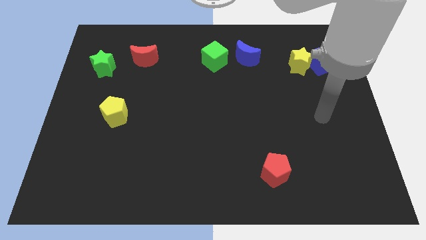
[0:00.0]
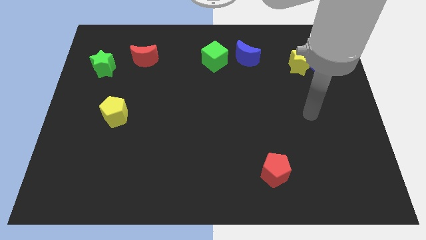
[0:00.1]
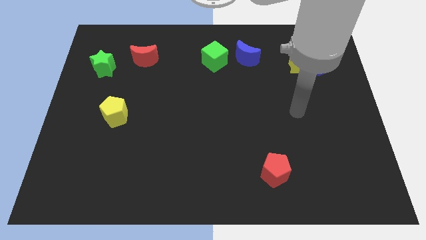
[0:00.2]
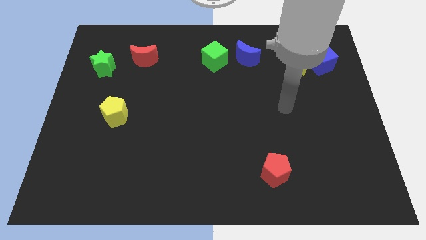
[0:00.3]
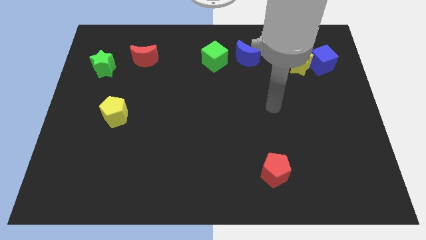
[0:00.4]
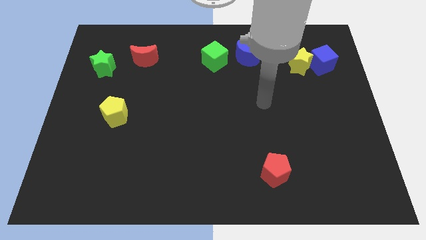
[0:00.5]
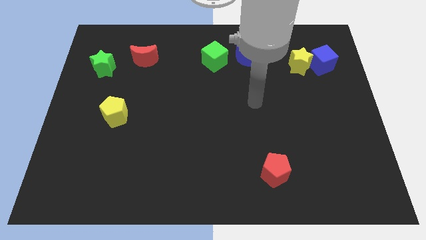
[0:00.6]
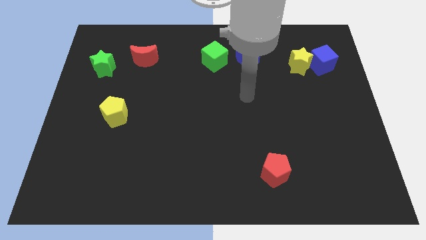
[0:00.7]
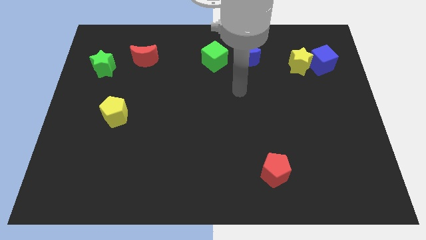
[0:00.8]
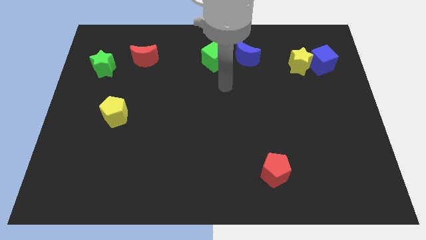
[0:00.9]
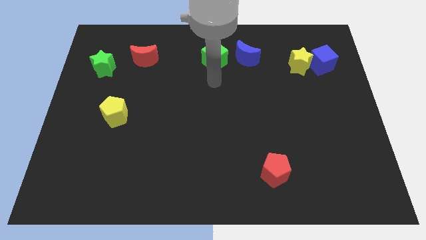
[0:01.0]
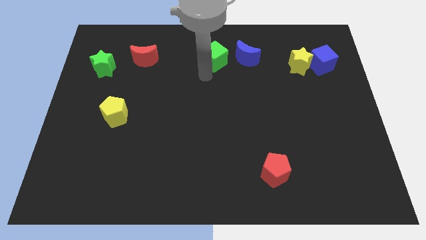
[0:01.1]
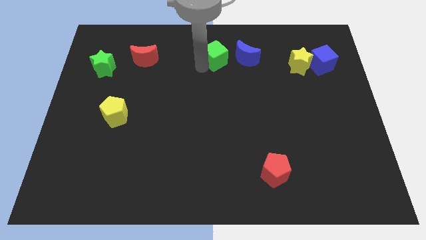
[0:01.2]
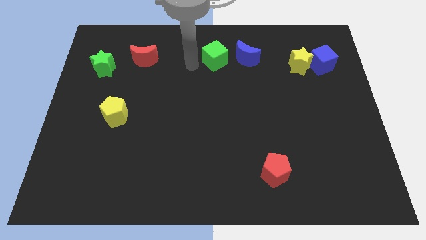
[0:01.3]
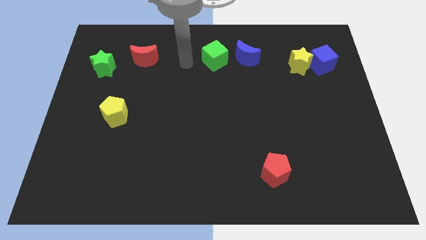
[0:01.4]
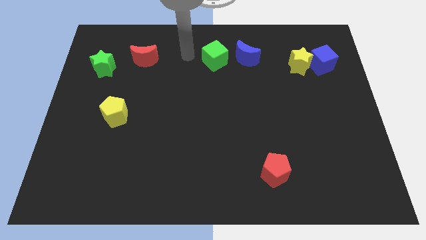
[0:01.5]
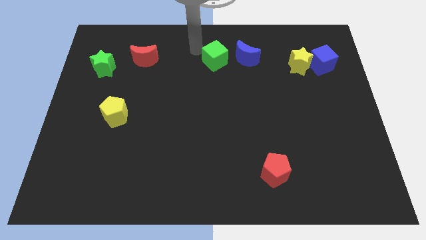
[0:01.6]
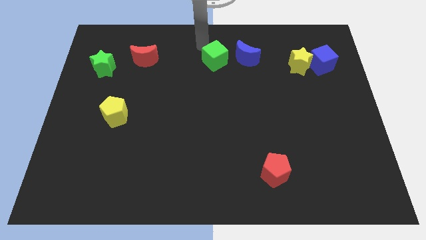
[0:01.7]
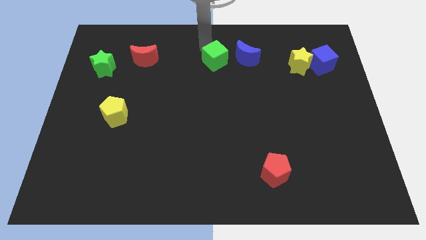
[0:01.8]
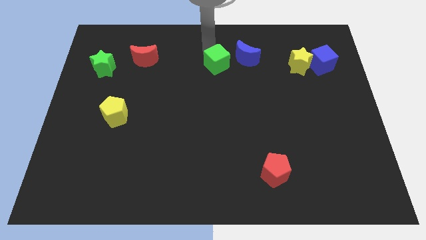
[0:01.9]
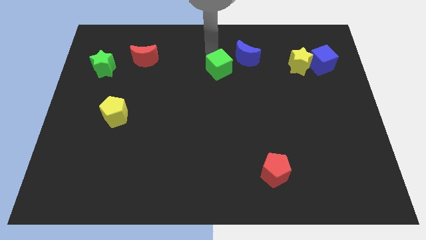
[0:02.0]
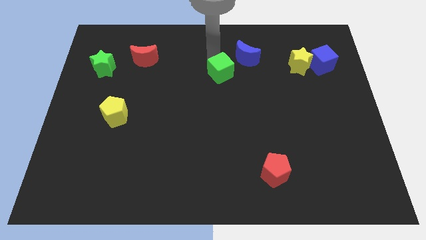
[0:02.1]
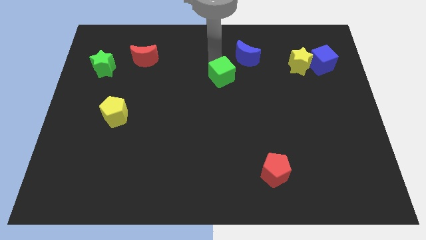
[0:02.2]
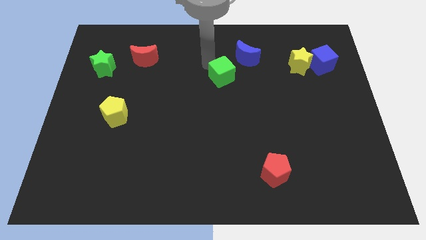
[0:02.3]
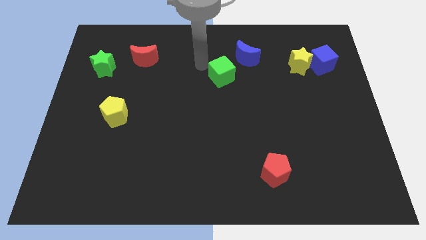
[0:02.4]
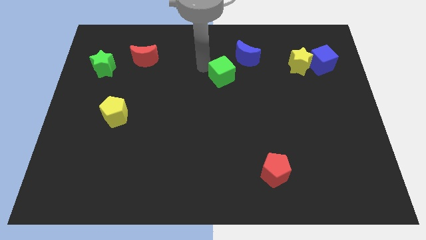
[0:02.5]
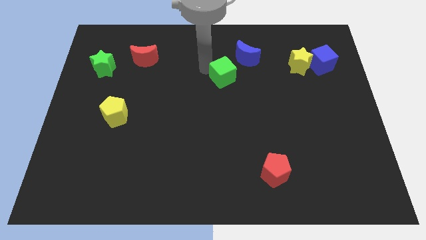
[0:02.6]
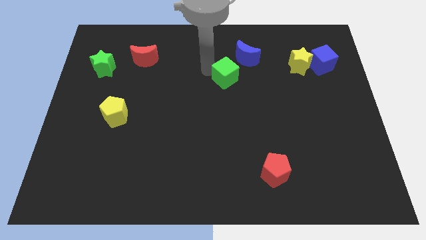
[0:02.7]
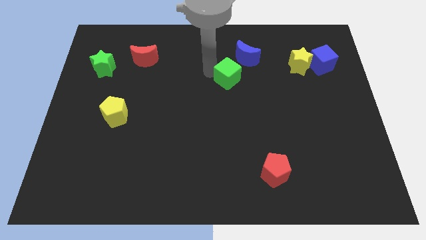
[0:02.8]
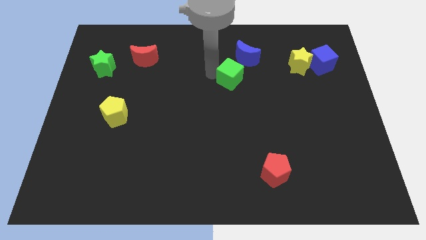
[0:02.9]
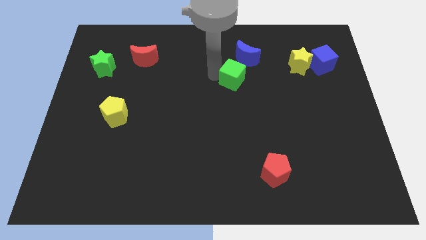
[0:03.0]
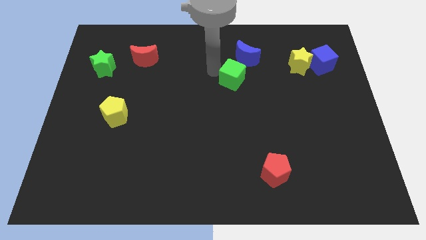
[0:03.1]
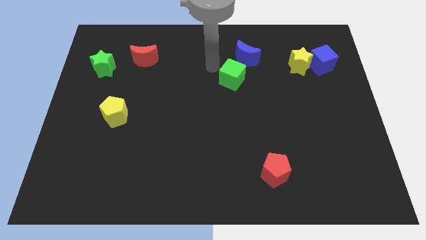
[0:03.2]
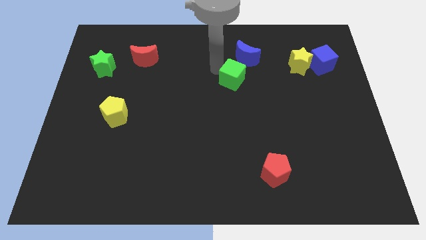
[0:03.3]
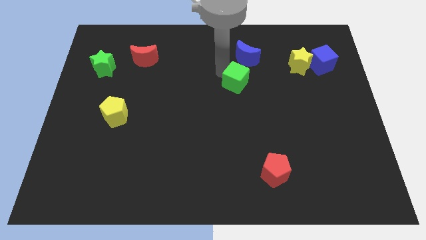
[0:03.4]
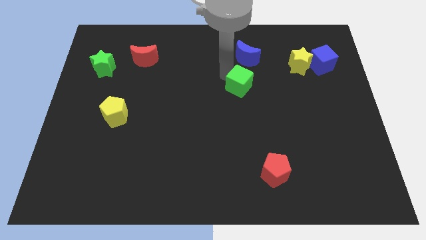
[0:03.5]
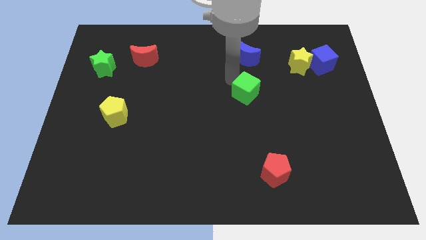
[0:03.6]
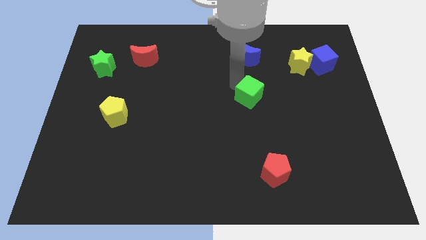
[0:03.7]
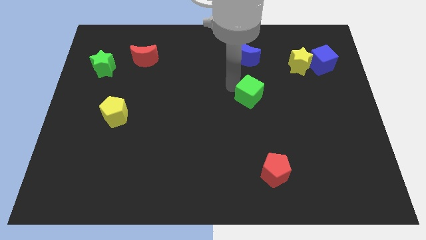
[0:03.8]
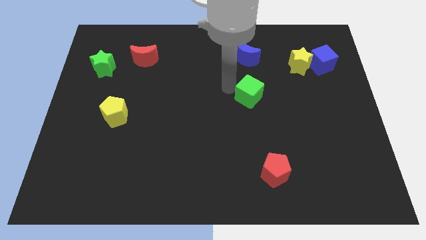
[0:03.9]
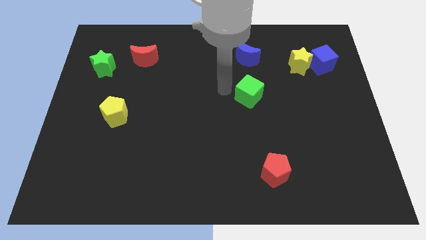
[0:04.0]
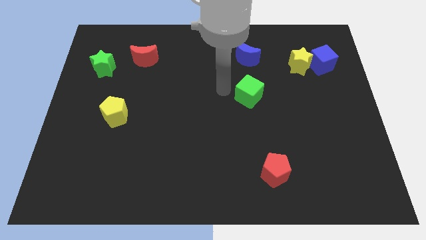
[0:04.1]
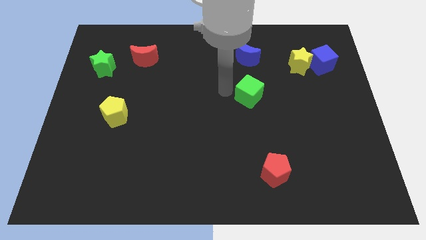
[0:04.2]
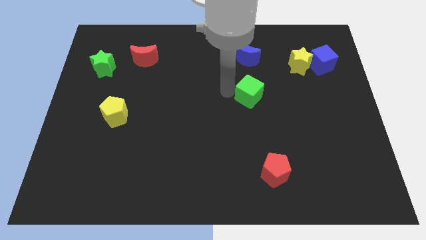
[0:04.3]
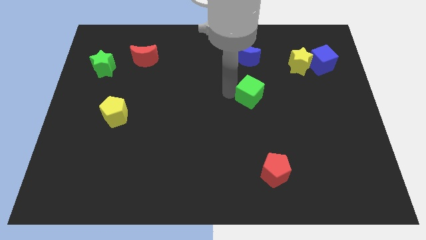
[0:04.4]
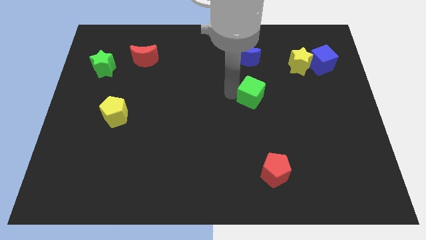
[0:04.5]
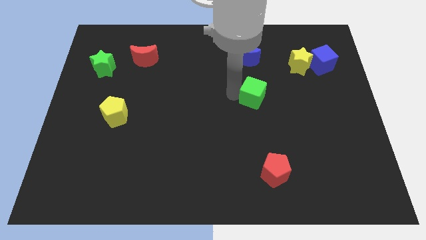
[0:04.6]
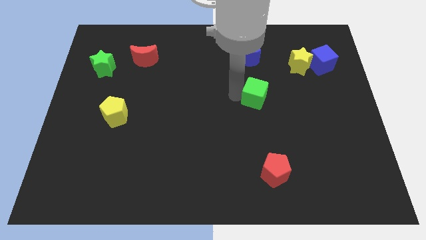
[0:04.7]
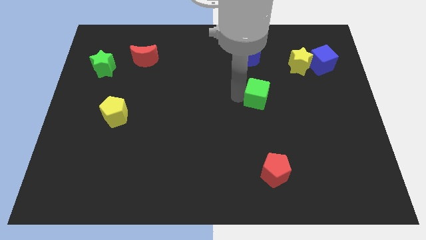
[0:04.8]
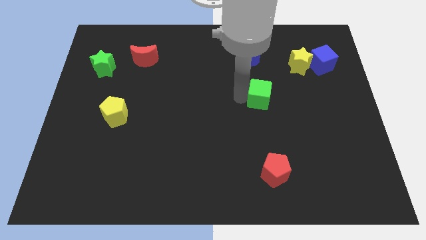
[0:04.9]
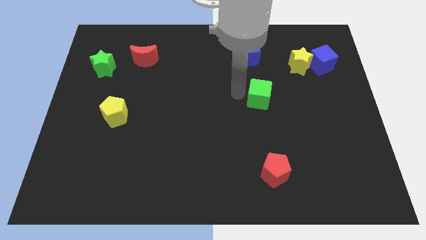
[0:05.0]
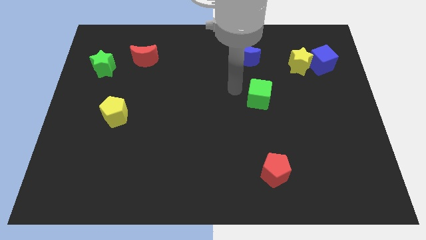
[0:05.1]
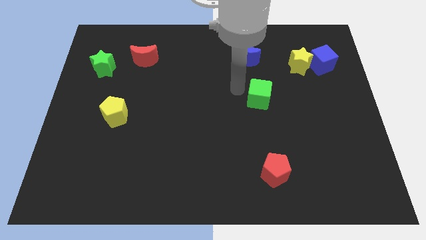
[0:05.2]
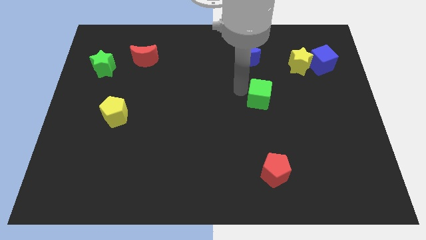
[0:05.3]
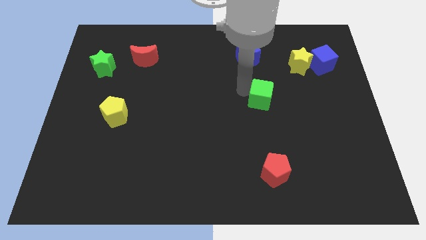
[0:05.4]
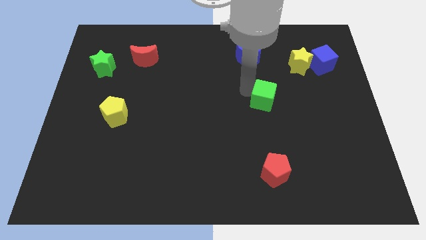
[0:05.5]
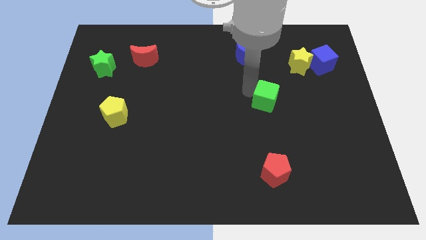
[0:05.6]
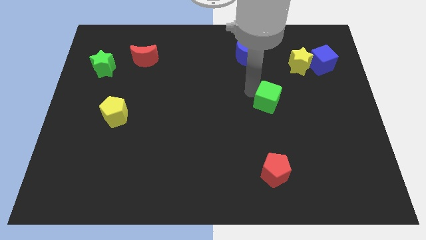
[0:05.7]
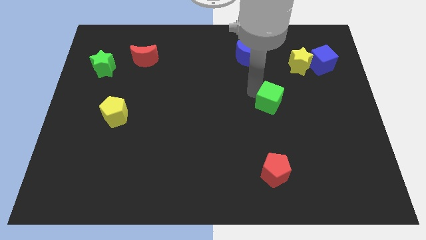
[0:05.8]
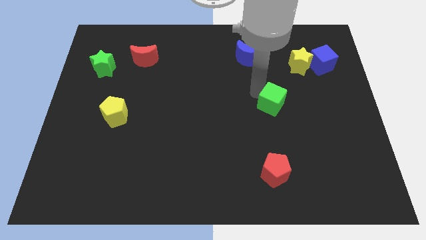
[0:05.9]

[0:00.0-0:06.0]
move the green cube diagonally downwards and right

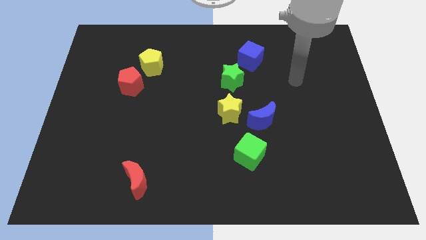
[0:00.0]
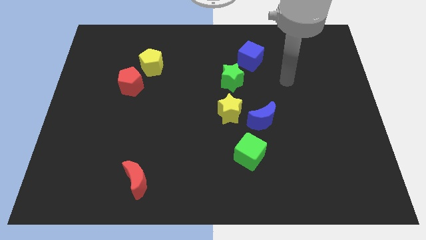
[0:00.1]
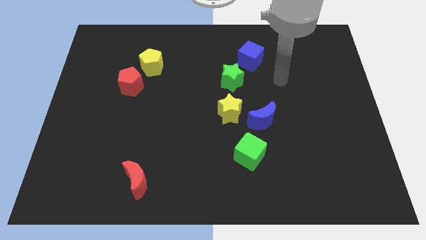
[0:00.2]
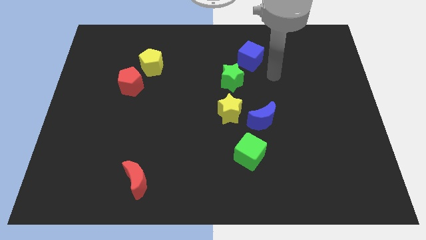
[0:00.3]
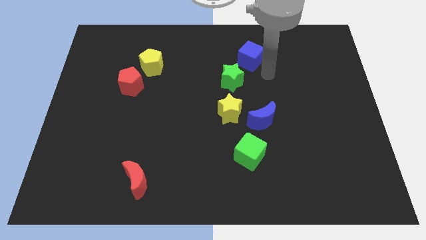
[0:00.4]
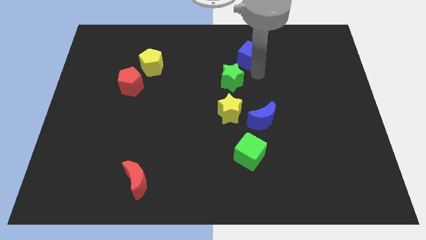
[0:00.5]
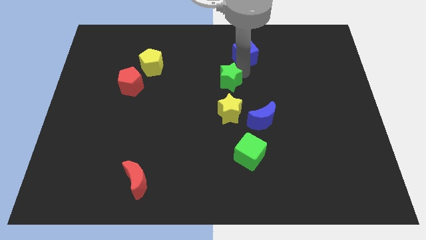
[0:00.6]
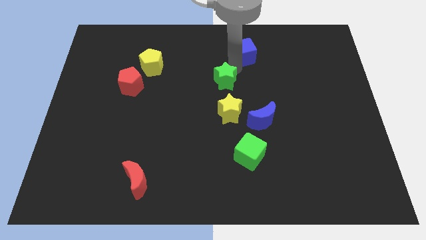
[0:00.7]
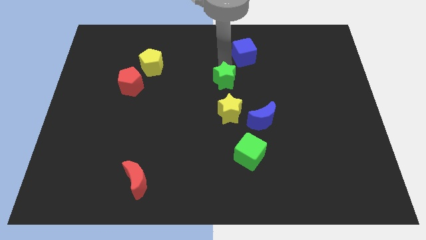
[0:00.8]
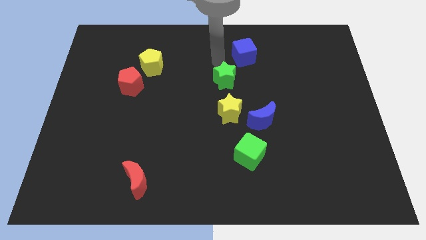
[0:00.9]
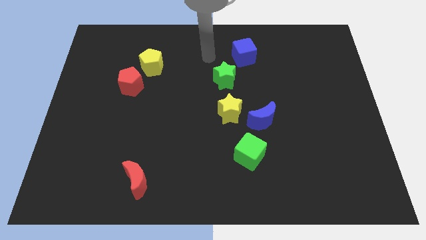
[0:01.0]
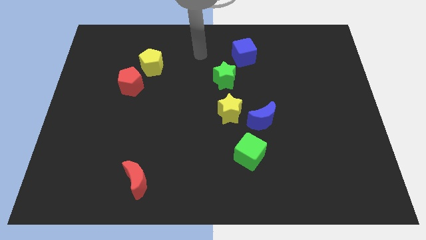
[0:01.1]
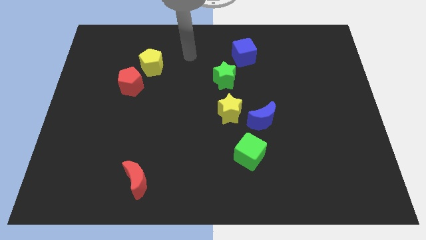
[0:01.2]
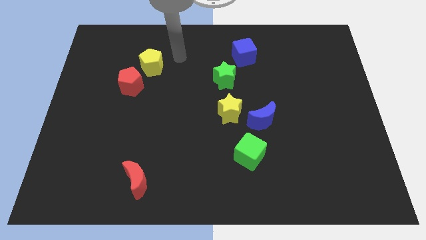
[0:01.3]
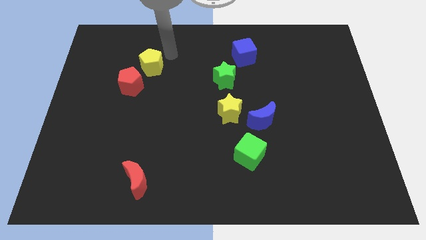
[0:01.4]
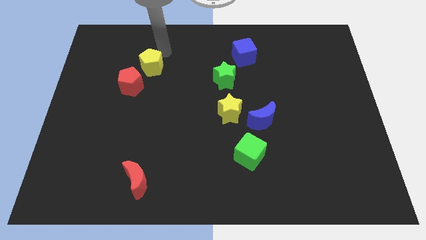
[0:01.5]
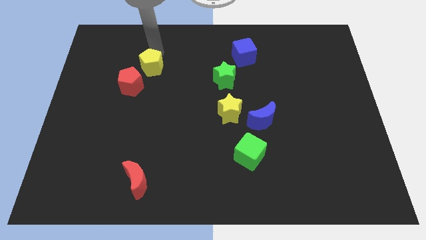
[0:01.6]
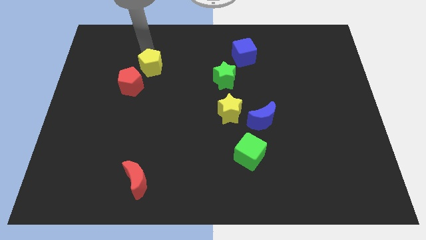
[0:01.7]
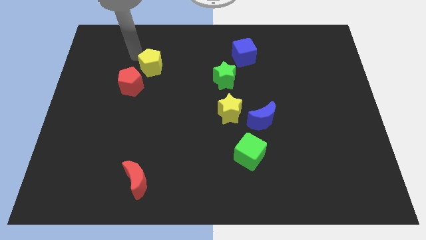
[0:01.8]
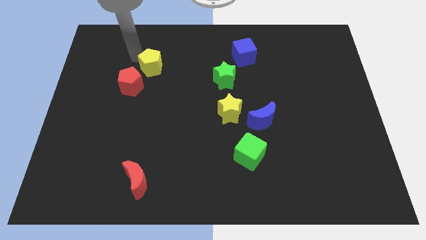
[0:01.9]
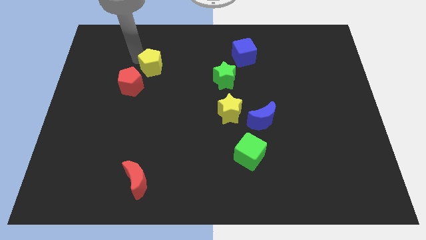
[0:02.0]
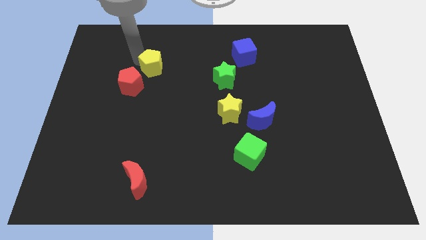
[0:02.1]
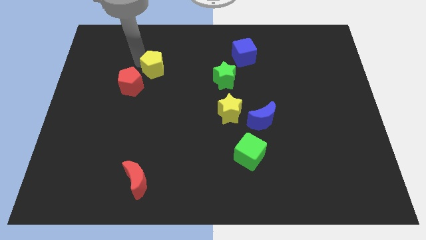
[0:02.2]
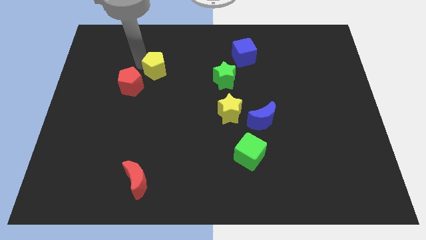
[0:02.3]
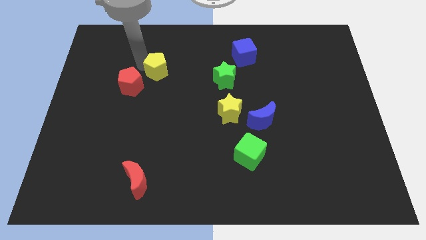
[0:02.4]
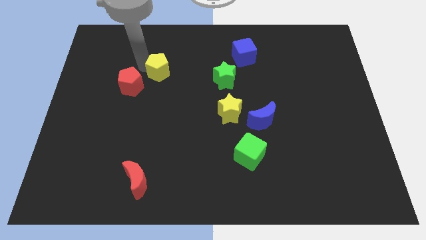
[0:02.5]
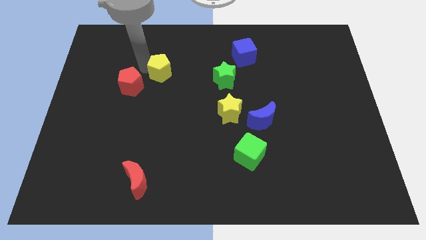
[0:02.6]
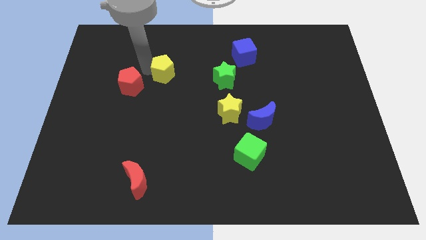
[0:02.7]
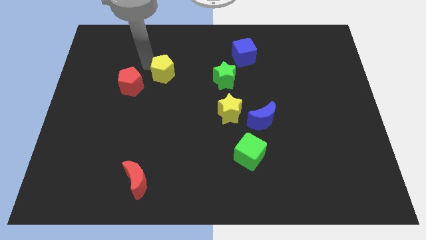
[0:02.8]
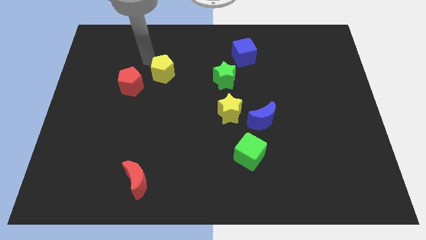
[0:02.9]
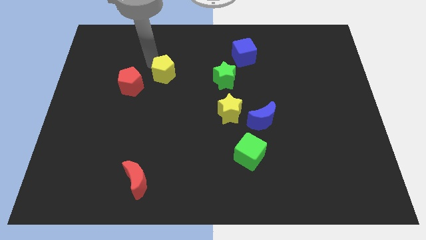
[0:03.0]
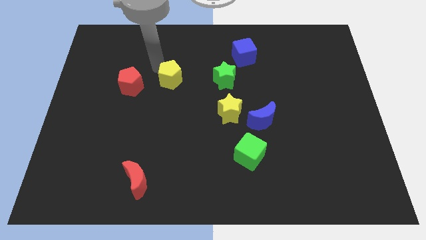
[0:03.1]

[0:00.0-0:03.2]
slide the yellow pentagon diagonally down and to the right somewhat
